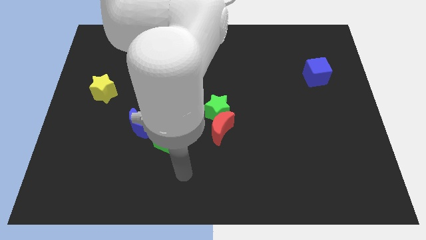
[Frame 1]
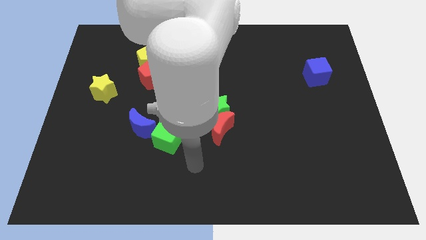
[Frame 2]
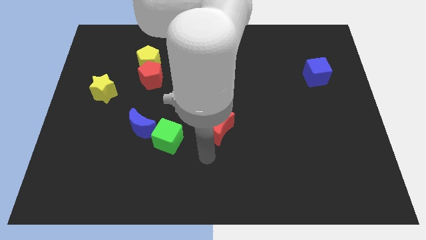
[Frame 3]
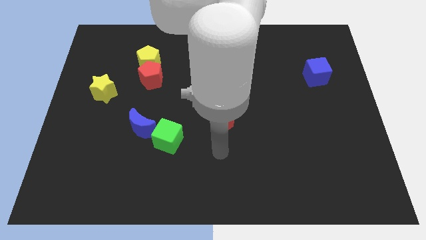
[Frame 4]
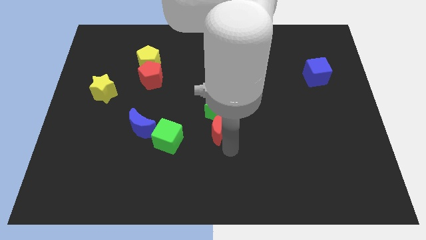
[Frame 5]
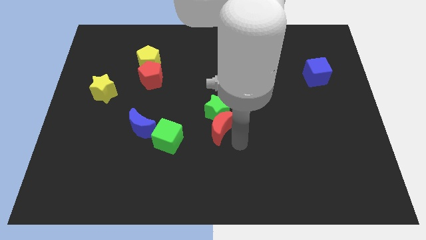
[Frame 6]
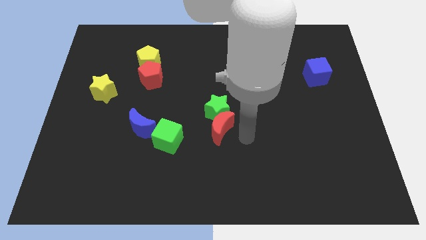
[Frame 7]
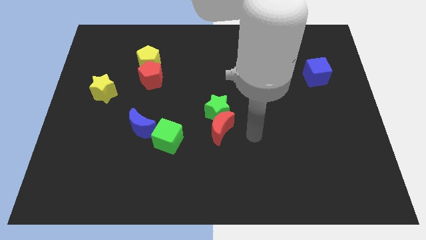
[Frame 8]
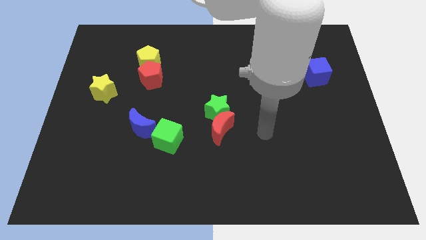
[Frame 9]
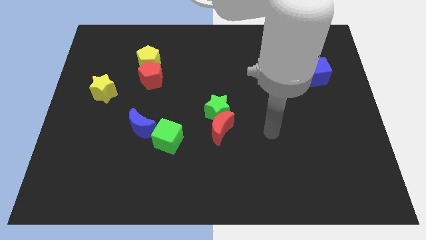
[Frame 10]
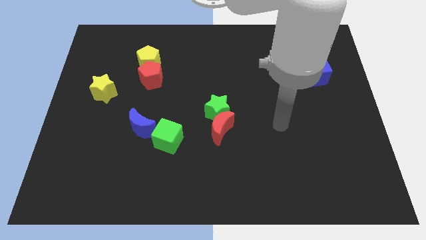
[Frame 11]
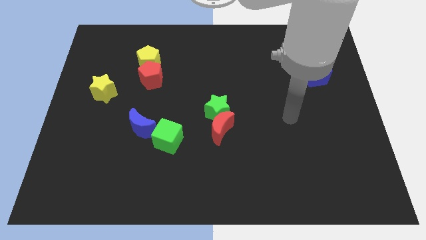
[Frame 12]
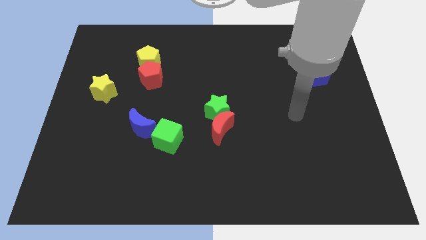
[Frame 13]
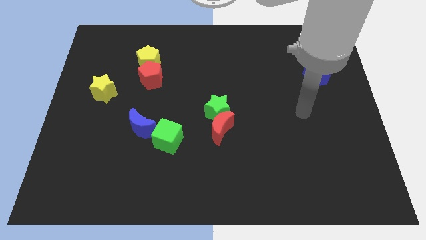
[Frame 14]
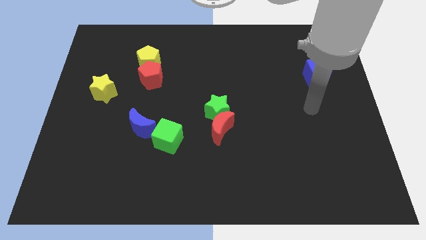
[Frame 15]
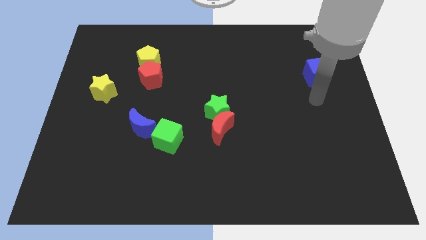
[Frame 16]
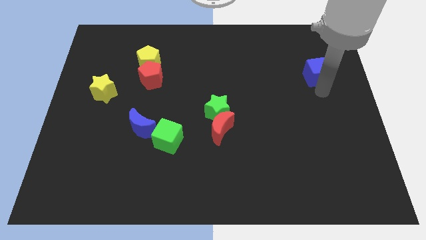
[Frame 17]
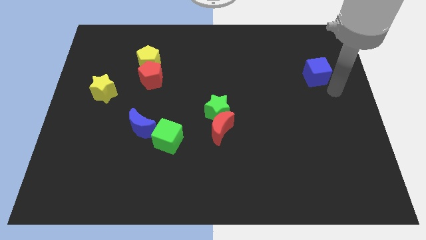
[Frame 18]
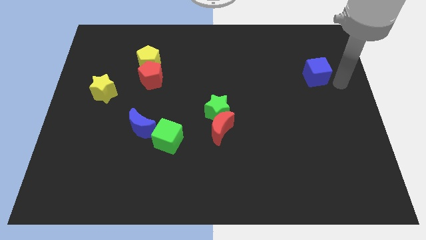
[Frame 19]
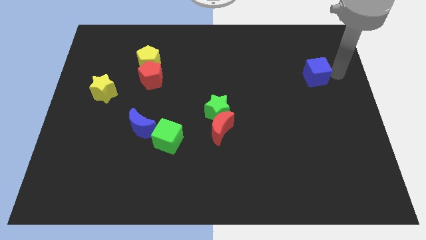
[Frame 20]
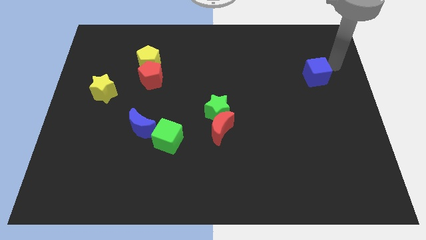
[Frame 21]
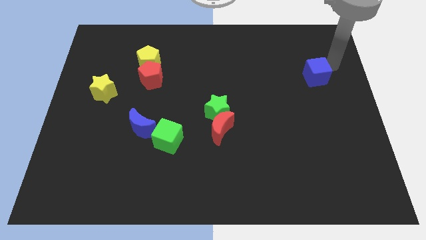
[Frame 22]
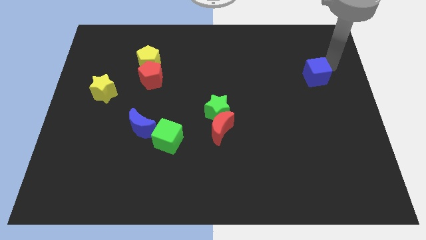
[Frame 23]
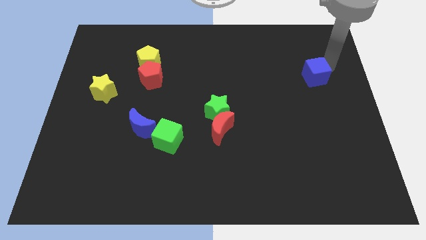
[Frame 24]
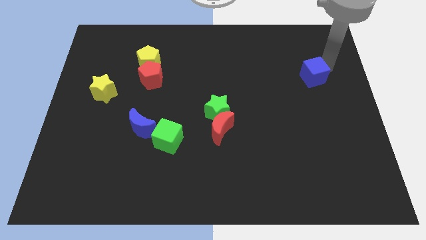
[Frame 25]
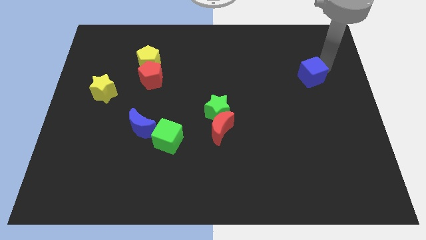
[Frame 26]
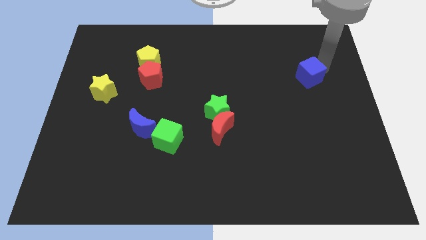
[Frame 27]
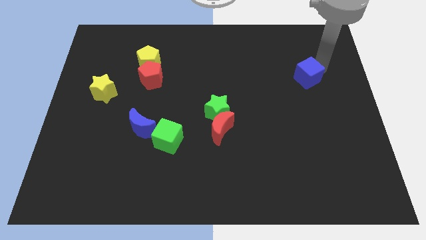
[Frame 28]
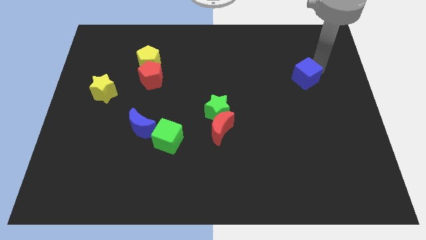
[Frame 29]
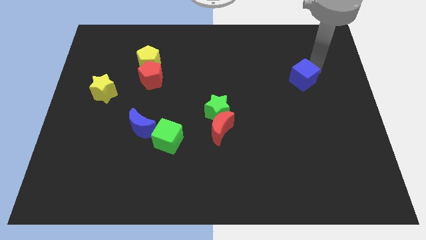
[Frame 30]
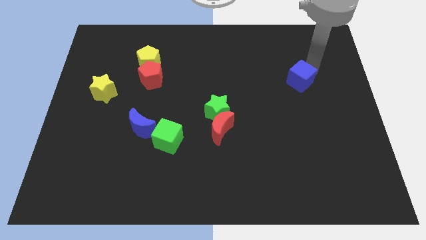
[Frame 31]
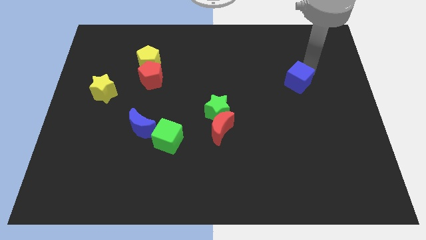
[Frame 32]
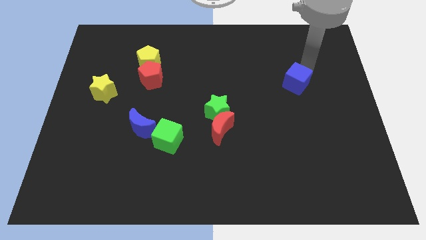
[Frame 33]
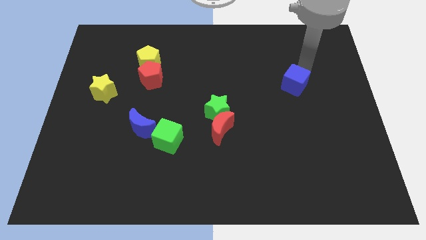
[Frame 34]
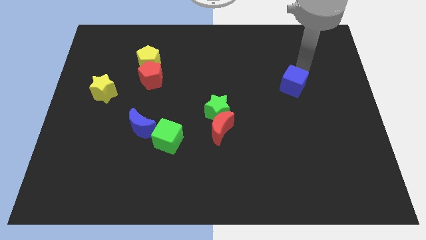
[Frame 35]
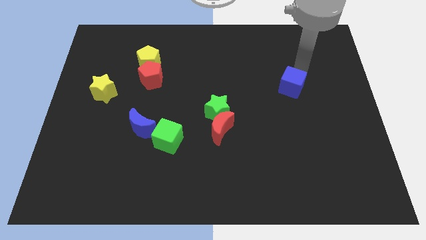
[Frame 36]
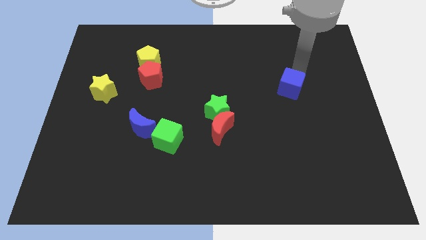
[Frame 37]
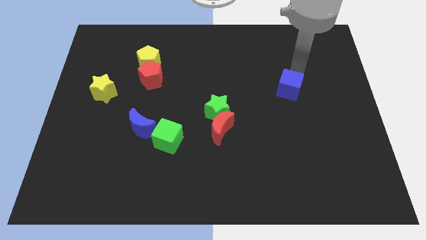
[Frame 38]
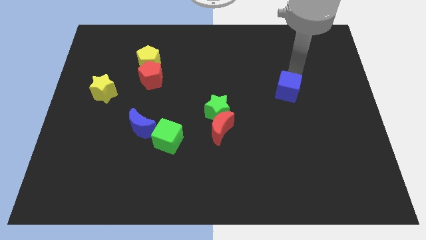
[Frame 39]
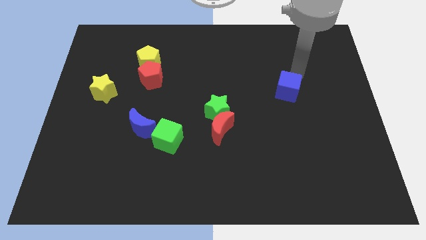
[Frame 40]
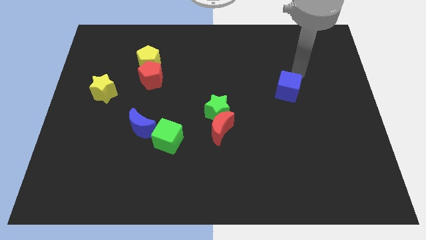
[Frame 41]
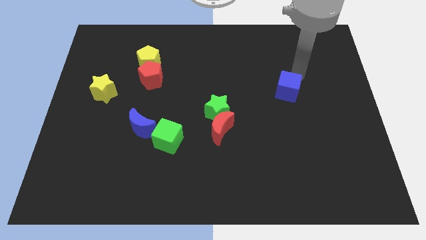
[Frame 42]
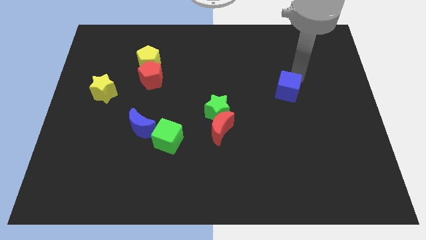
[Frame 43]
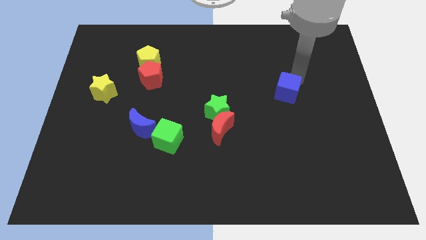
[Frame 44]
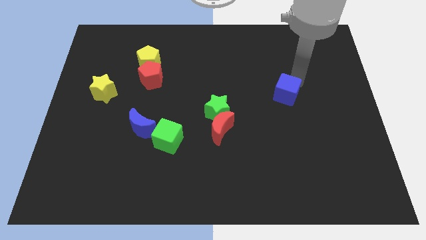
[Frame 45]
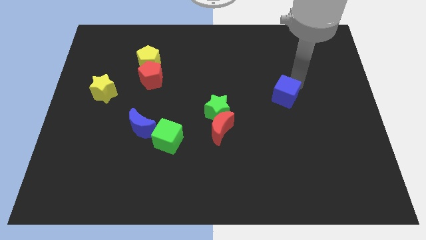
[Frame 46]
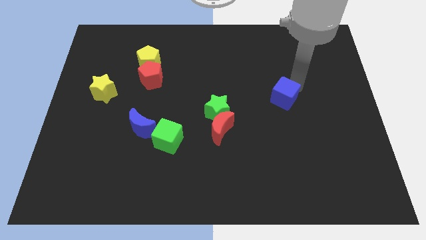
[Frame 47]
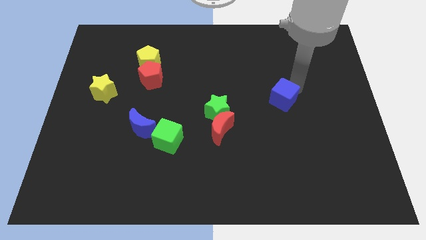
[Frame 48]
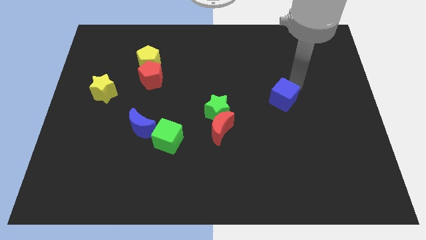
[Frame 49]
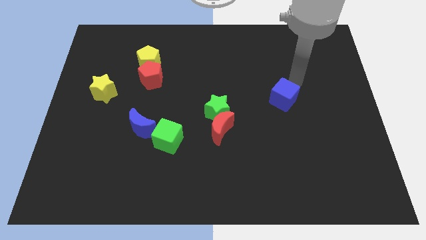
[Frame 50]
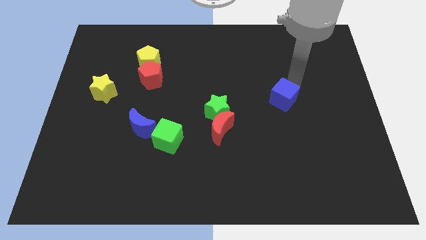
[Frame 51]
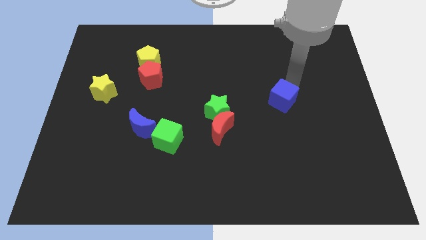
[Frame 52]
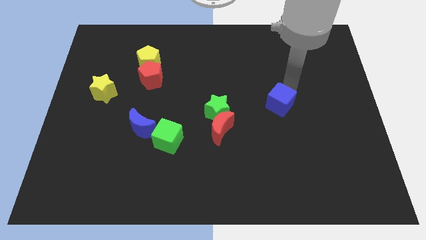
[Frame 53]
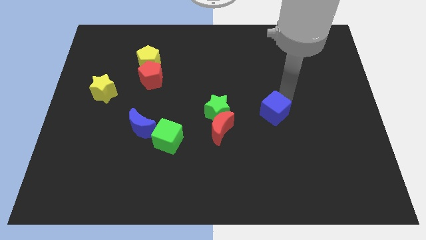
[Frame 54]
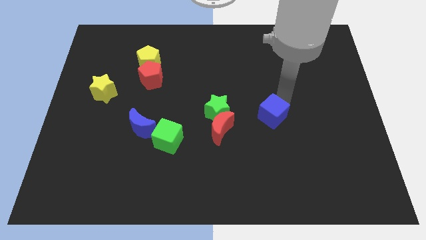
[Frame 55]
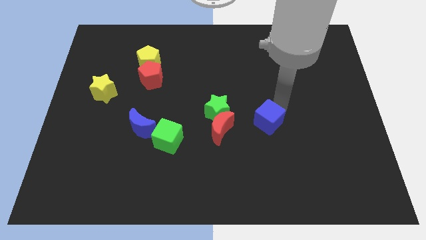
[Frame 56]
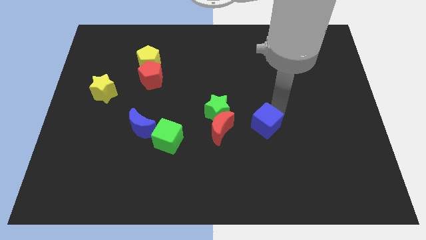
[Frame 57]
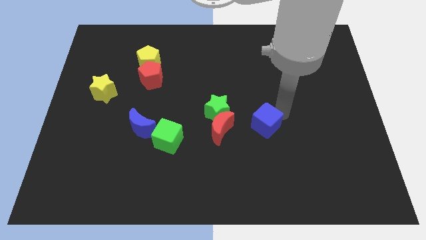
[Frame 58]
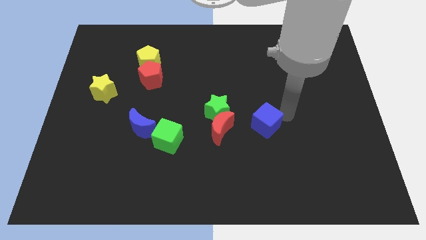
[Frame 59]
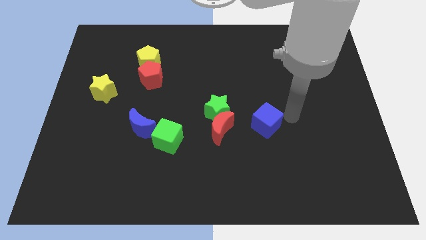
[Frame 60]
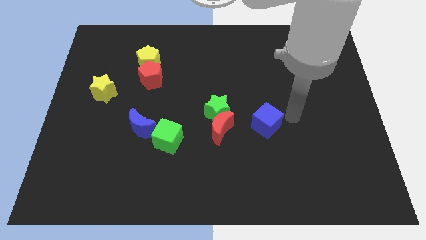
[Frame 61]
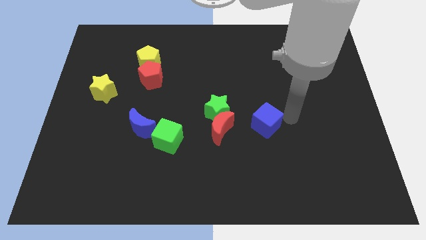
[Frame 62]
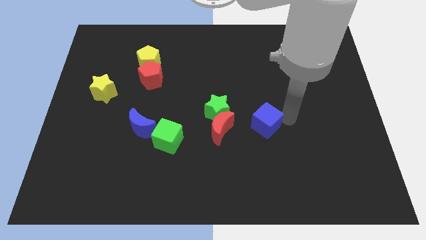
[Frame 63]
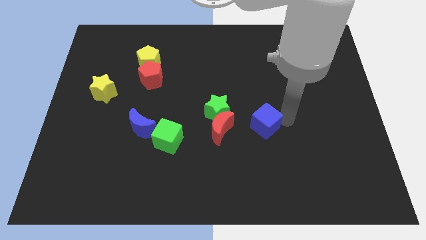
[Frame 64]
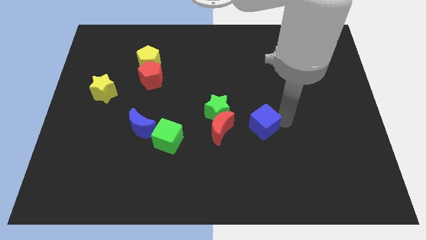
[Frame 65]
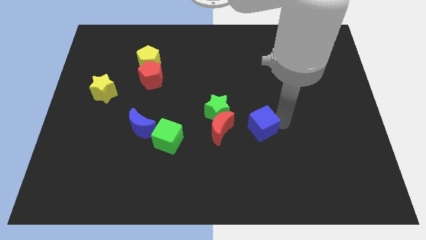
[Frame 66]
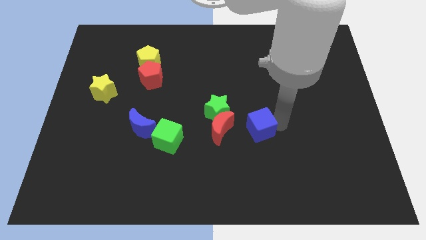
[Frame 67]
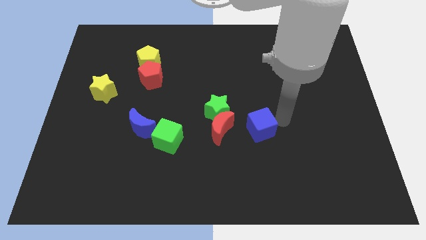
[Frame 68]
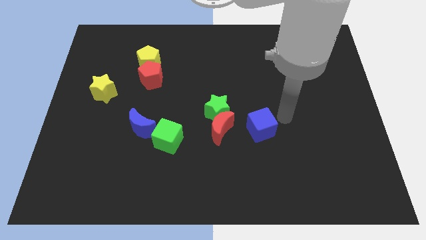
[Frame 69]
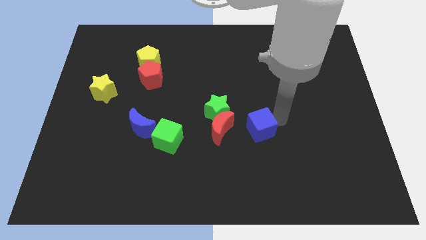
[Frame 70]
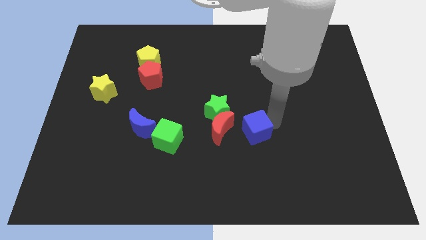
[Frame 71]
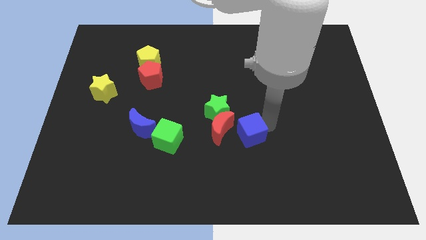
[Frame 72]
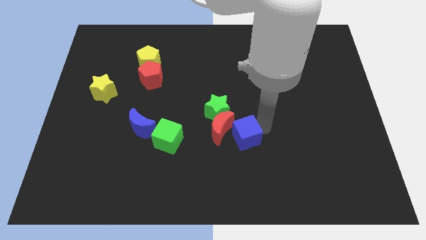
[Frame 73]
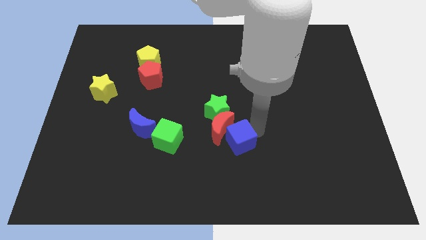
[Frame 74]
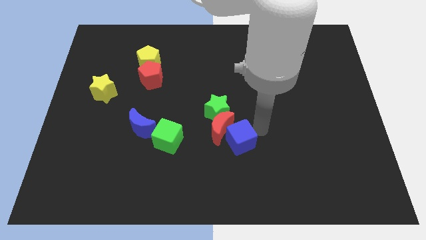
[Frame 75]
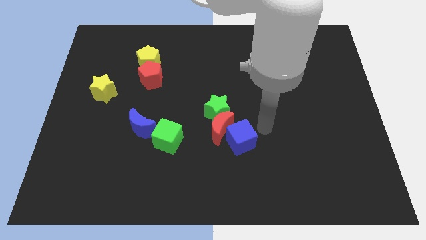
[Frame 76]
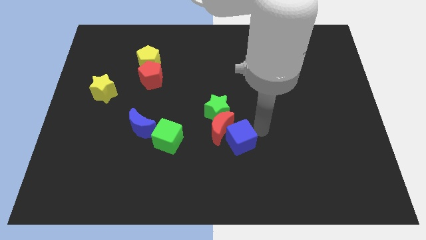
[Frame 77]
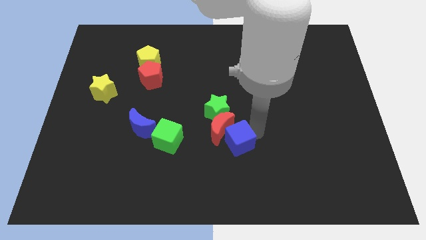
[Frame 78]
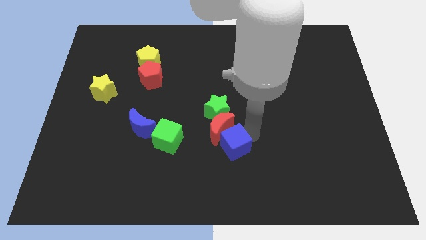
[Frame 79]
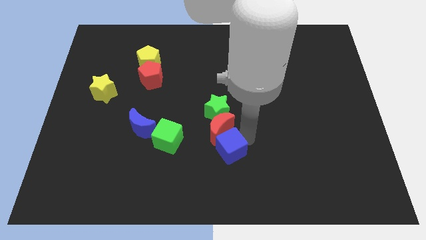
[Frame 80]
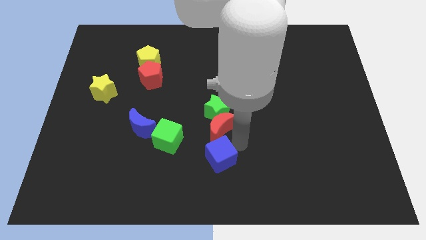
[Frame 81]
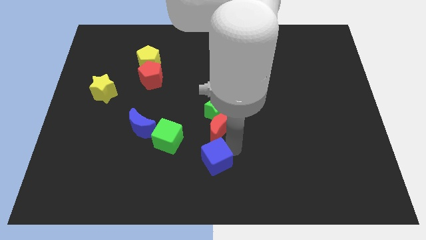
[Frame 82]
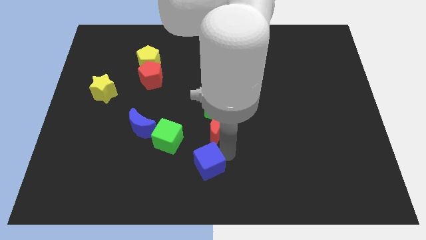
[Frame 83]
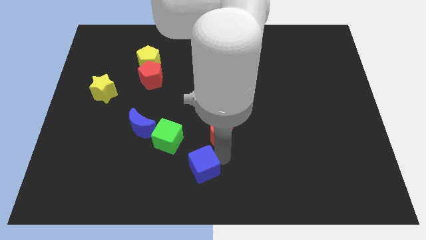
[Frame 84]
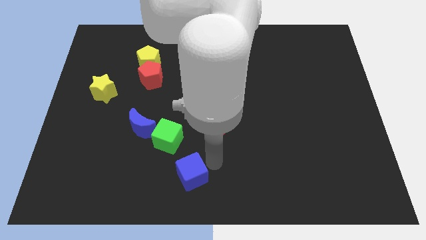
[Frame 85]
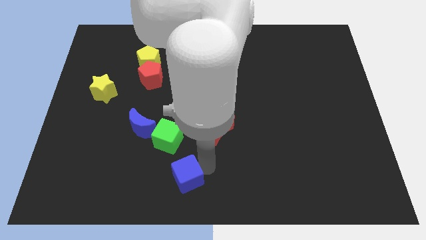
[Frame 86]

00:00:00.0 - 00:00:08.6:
push the blue cube below the green cube

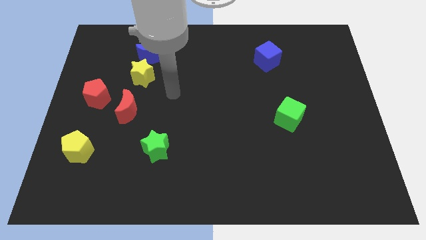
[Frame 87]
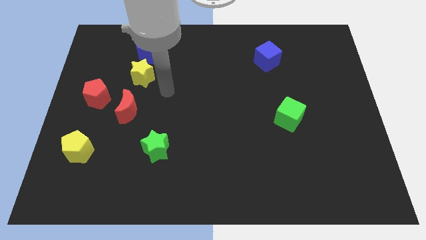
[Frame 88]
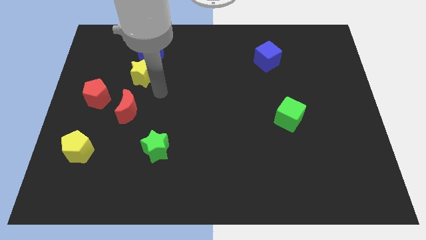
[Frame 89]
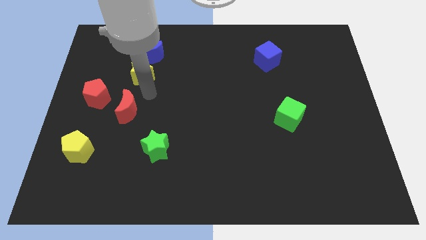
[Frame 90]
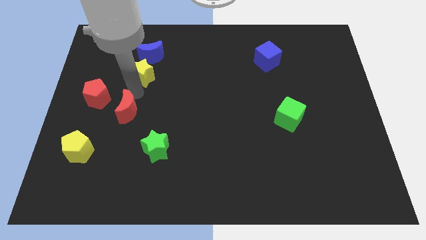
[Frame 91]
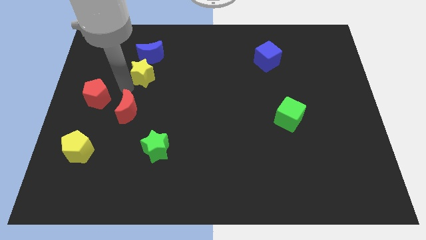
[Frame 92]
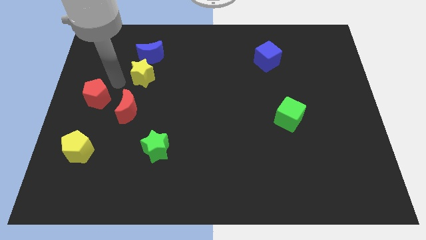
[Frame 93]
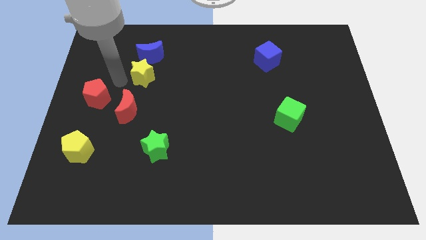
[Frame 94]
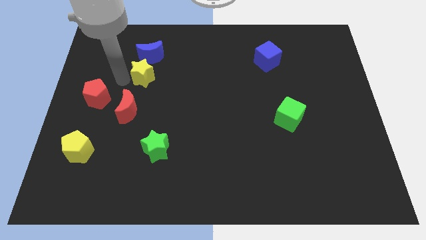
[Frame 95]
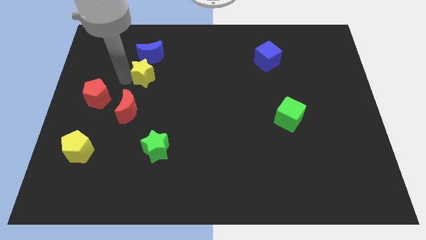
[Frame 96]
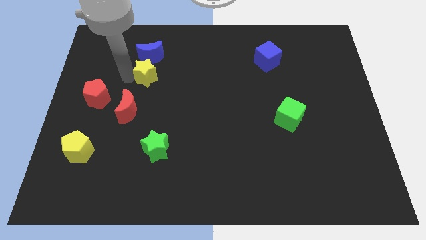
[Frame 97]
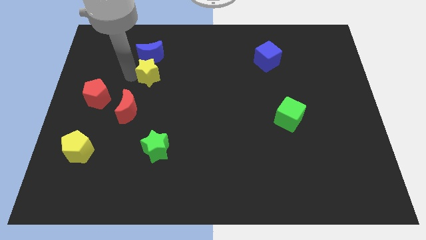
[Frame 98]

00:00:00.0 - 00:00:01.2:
move the yellow star diagonally down and to the right of the blue moon
